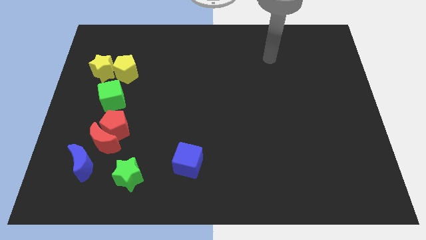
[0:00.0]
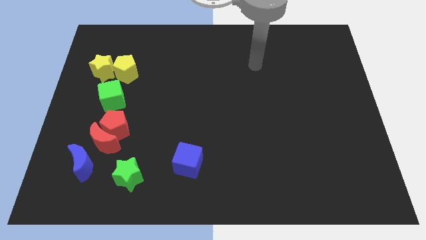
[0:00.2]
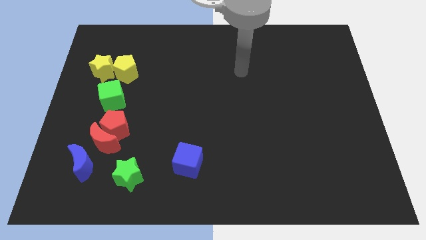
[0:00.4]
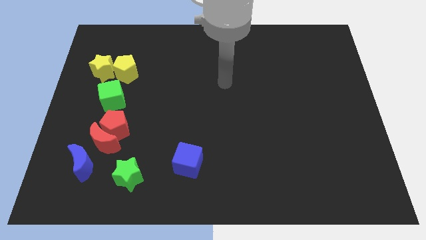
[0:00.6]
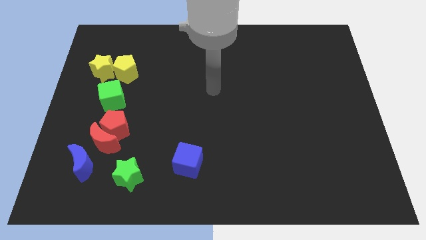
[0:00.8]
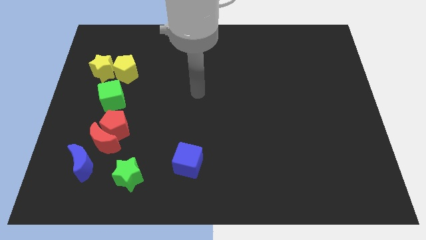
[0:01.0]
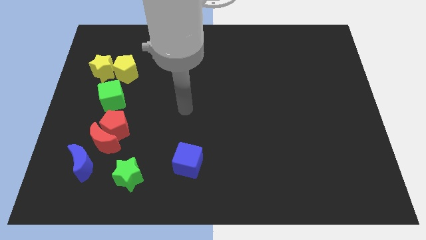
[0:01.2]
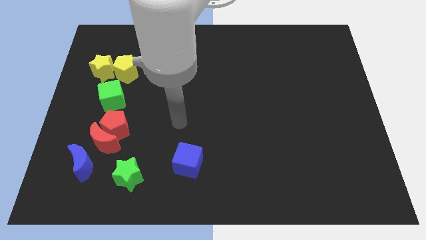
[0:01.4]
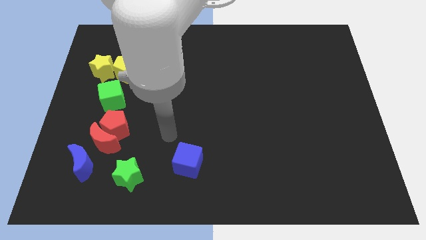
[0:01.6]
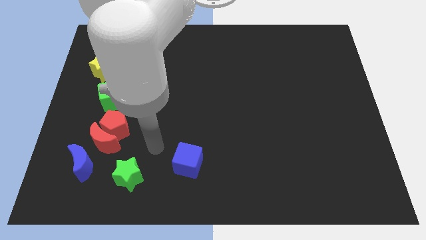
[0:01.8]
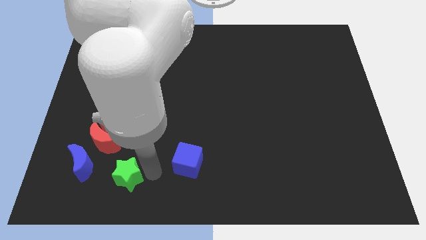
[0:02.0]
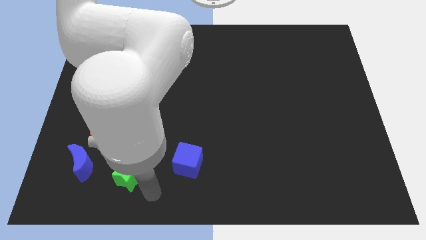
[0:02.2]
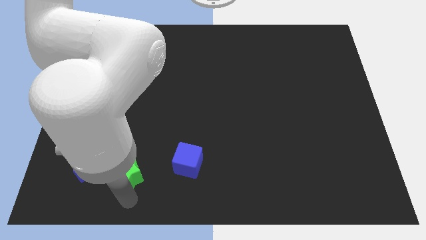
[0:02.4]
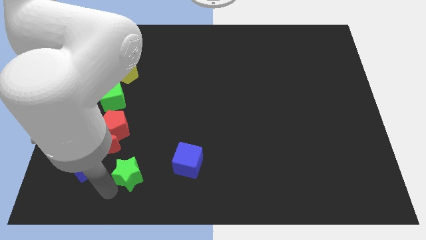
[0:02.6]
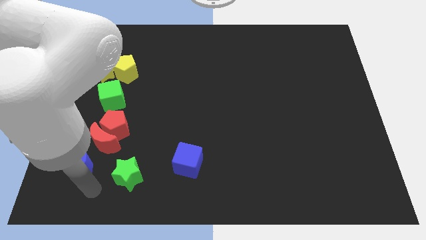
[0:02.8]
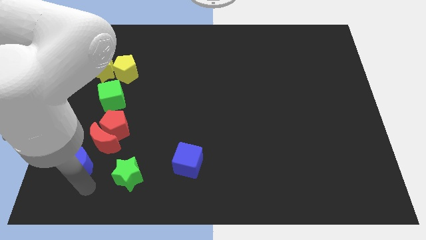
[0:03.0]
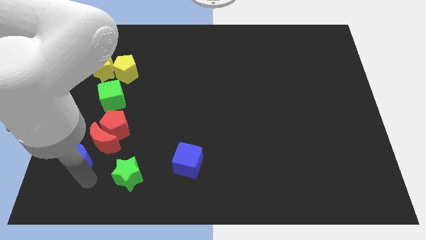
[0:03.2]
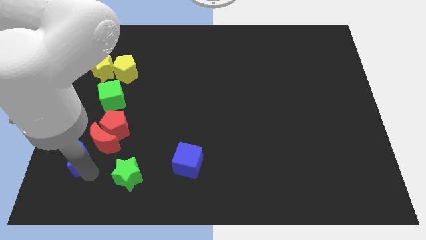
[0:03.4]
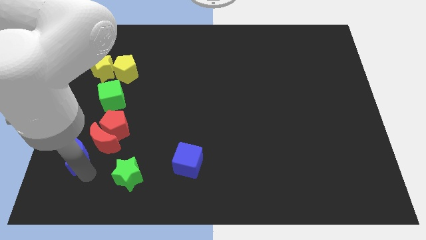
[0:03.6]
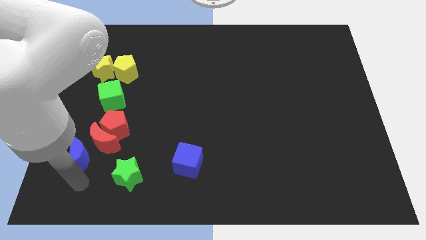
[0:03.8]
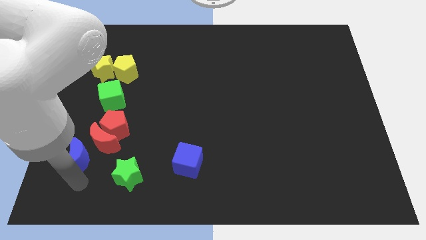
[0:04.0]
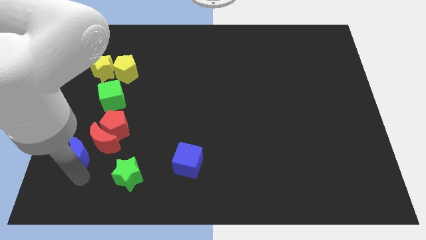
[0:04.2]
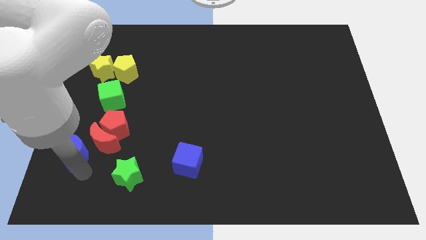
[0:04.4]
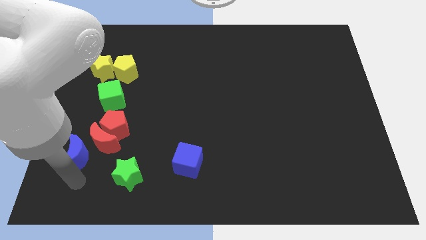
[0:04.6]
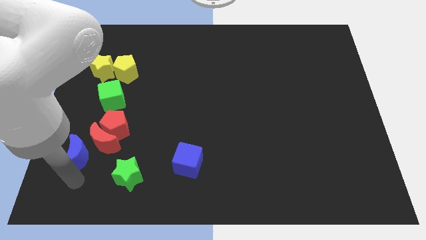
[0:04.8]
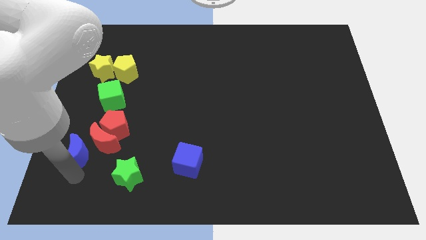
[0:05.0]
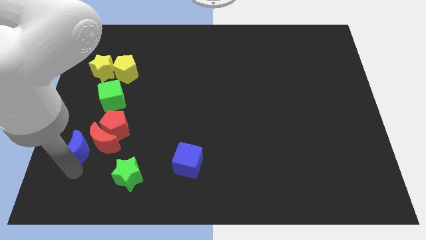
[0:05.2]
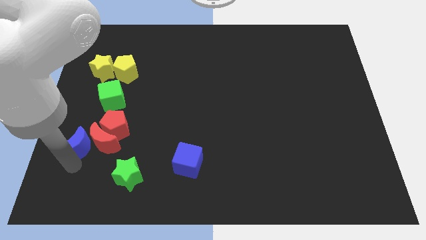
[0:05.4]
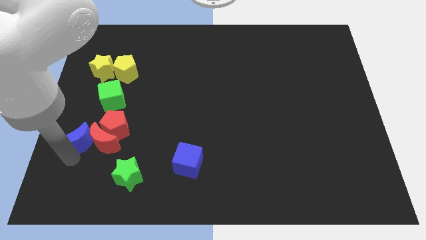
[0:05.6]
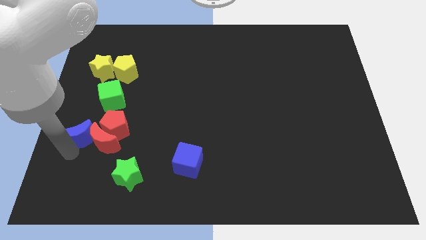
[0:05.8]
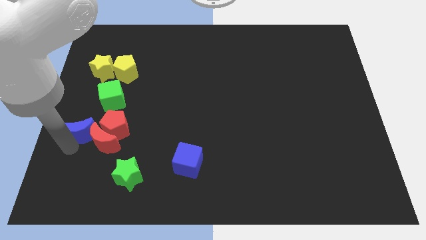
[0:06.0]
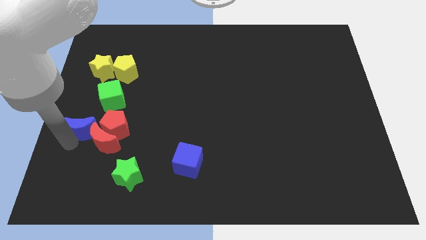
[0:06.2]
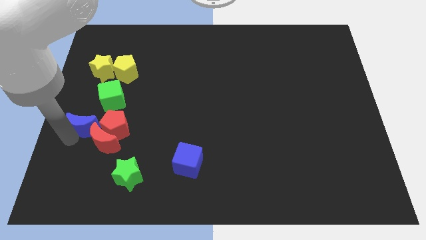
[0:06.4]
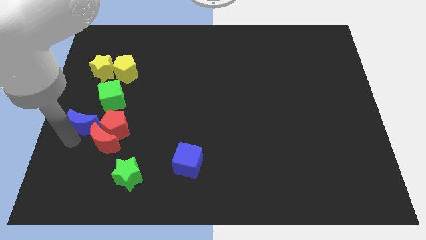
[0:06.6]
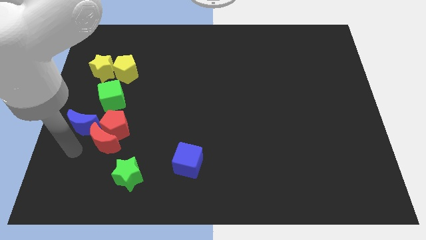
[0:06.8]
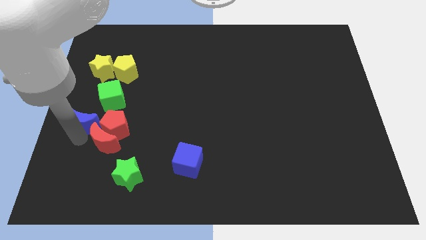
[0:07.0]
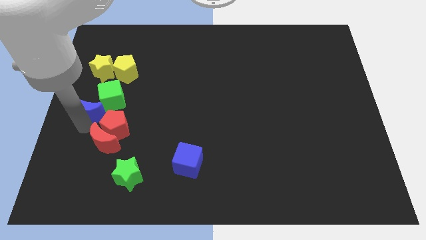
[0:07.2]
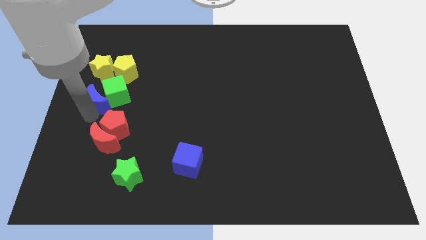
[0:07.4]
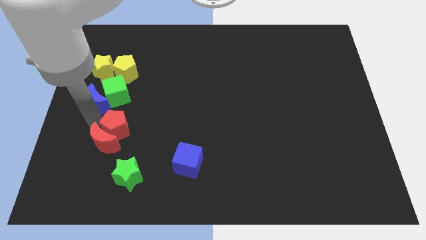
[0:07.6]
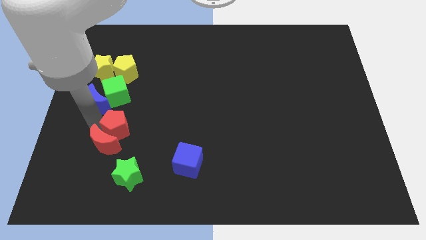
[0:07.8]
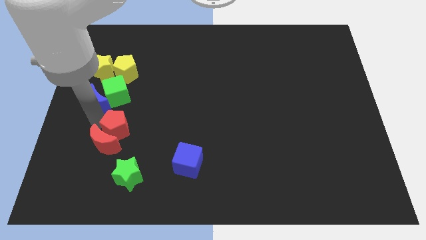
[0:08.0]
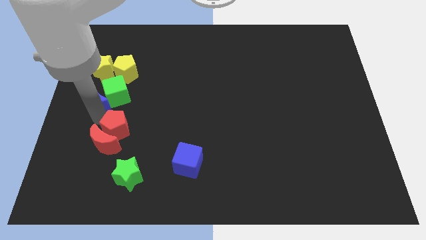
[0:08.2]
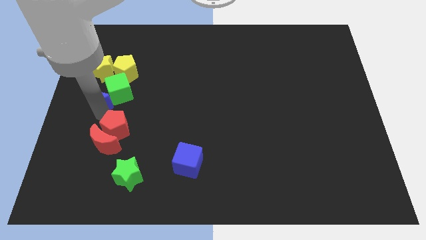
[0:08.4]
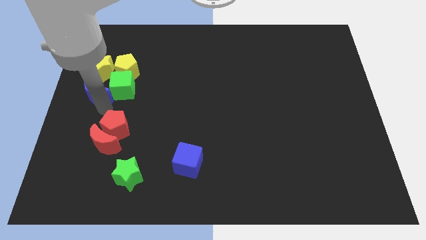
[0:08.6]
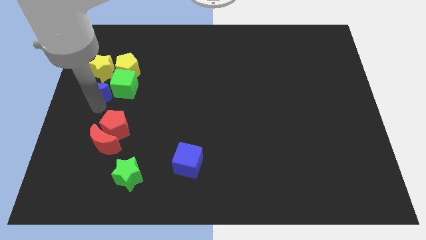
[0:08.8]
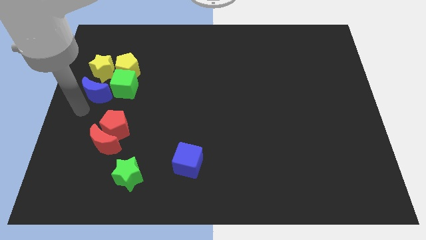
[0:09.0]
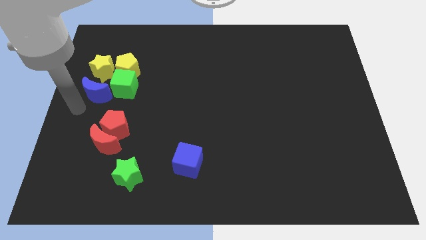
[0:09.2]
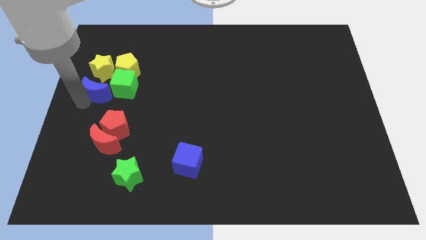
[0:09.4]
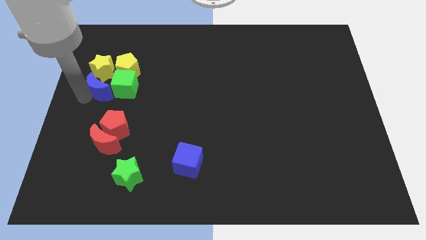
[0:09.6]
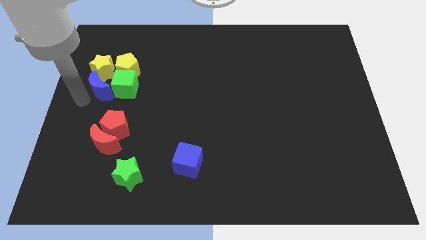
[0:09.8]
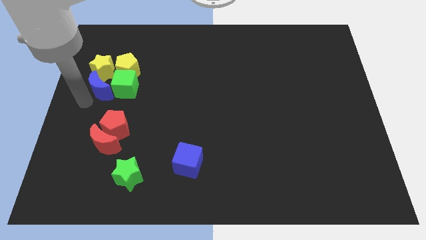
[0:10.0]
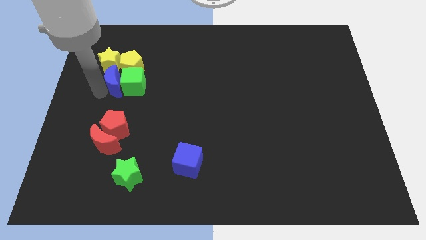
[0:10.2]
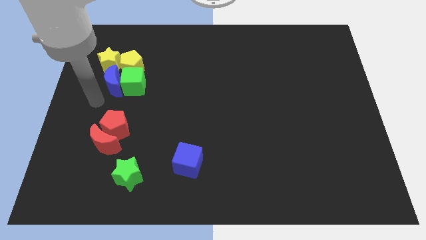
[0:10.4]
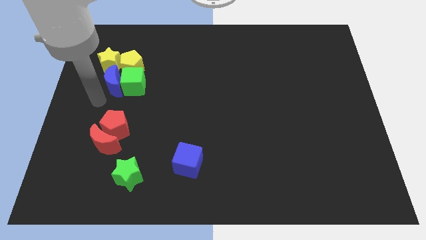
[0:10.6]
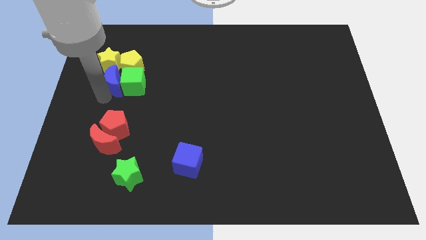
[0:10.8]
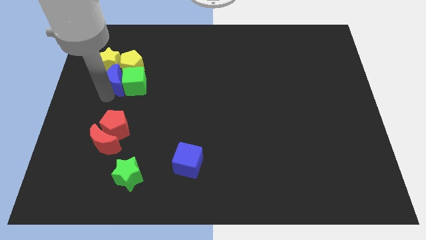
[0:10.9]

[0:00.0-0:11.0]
put the blue moon towards the yellow pentagon

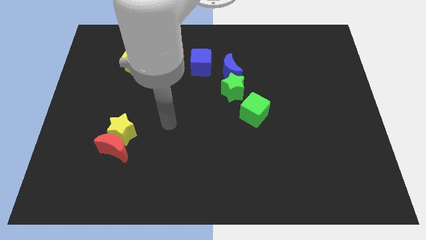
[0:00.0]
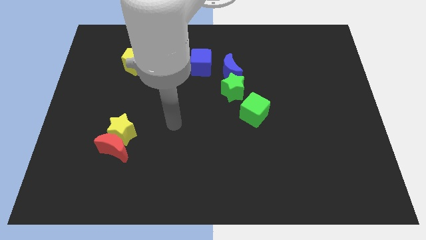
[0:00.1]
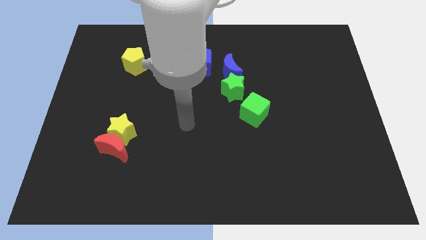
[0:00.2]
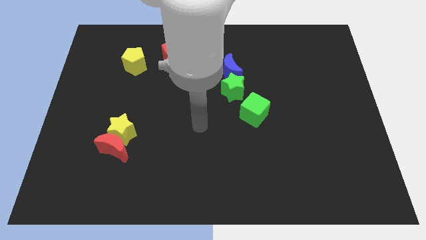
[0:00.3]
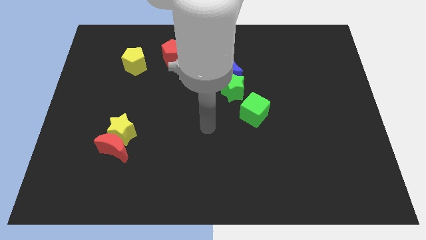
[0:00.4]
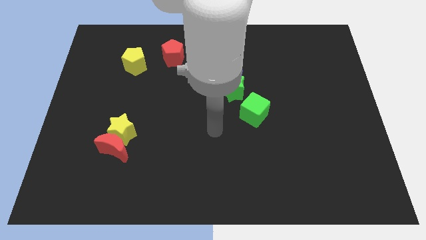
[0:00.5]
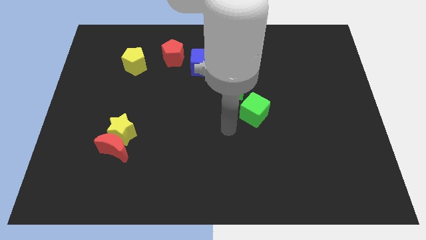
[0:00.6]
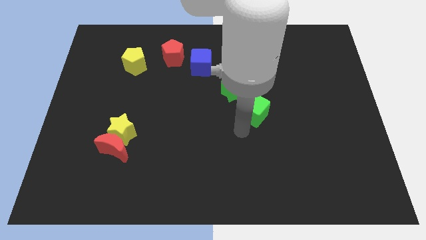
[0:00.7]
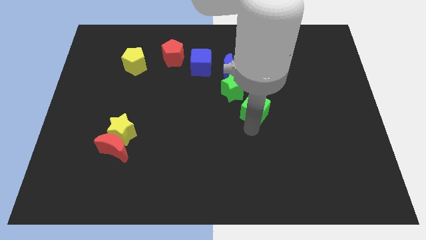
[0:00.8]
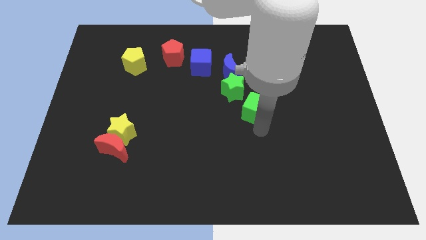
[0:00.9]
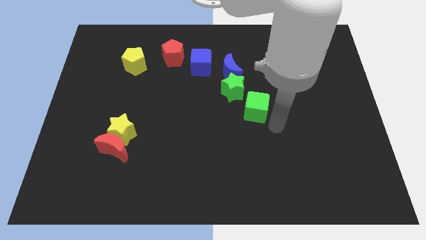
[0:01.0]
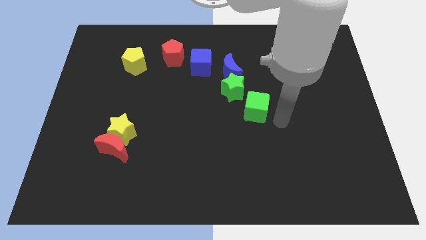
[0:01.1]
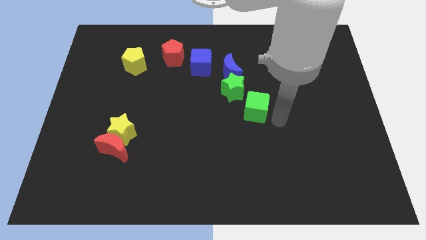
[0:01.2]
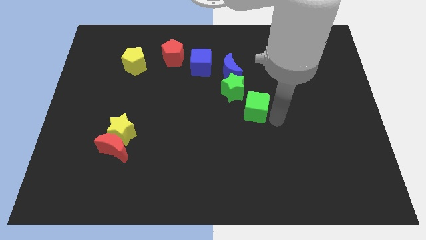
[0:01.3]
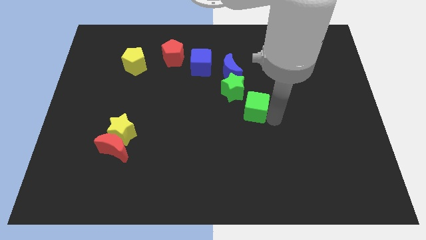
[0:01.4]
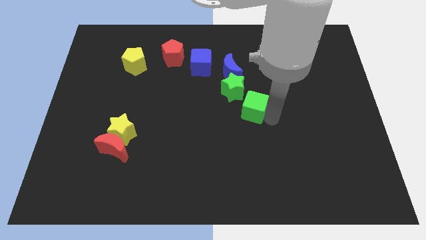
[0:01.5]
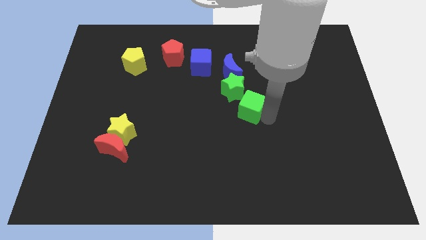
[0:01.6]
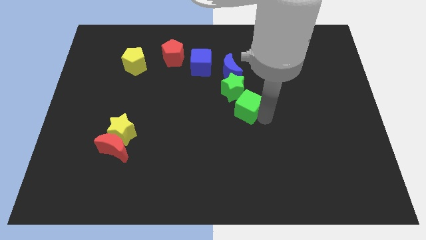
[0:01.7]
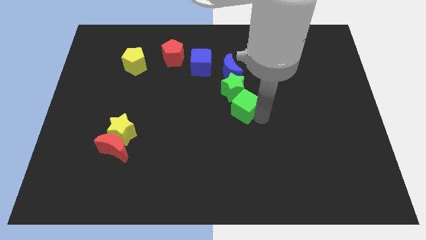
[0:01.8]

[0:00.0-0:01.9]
put the green cube towards the green star
